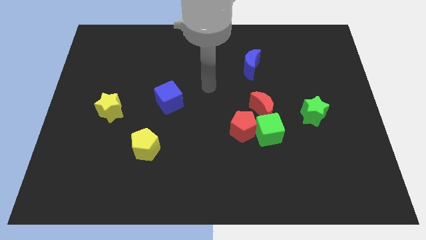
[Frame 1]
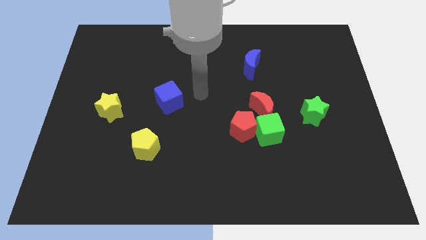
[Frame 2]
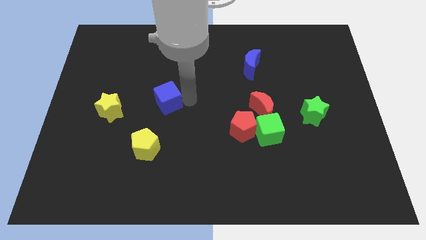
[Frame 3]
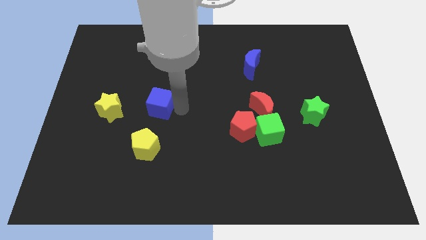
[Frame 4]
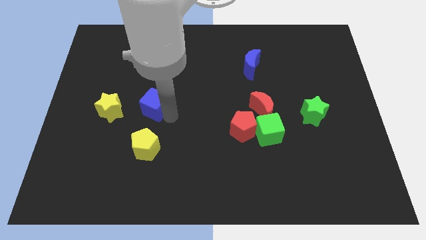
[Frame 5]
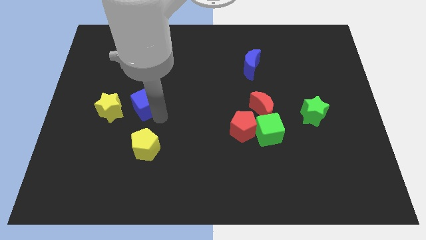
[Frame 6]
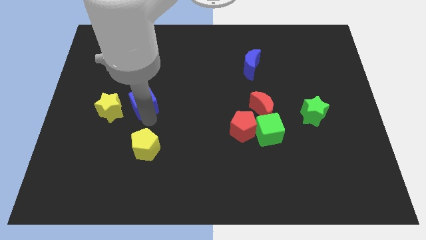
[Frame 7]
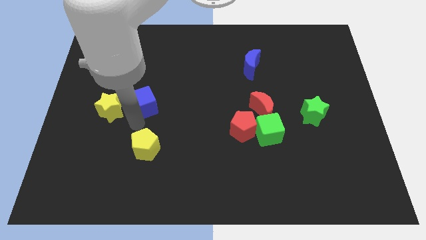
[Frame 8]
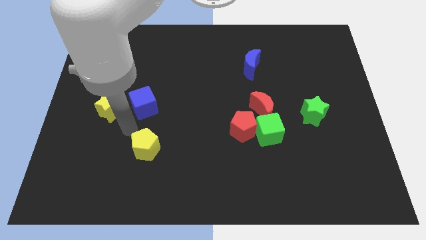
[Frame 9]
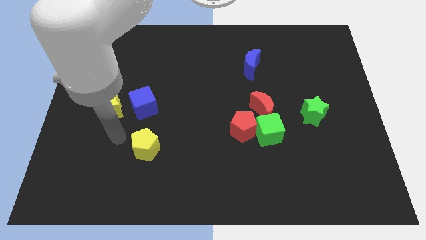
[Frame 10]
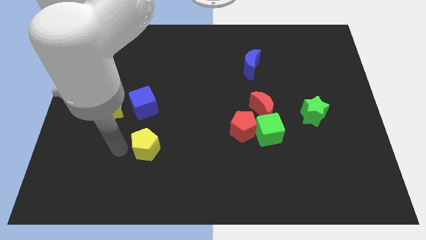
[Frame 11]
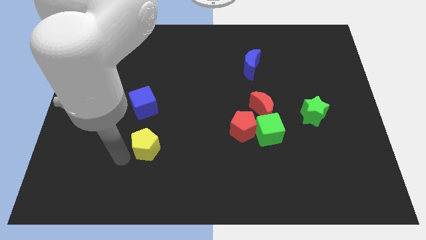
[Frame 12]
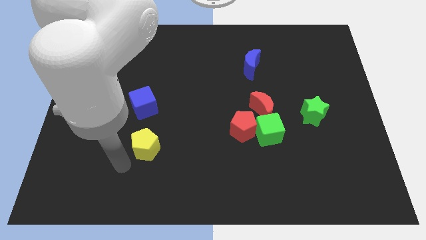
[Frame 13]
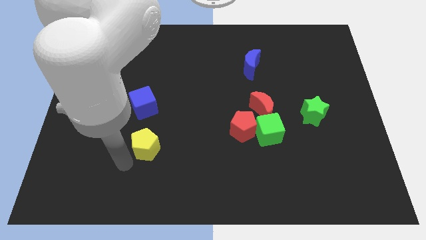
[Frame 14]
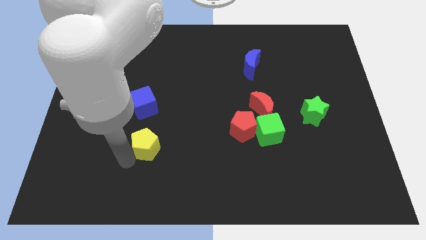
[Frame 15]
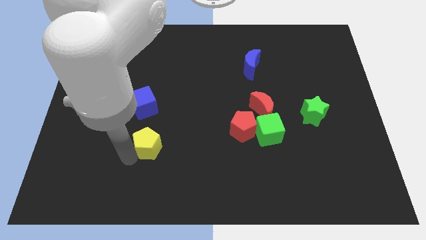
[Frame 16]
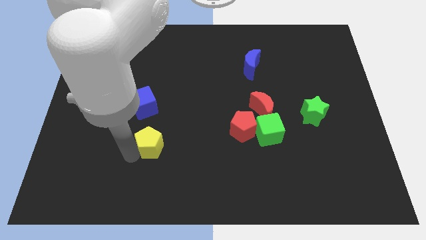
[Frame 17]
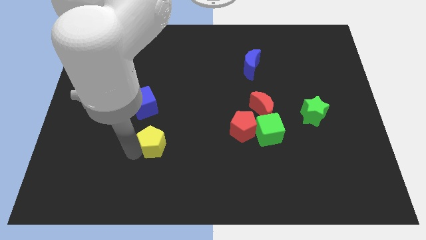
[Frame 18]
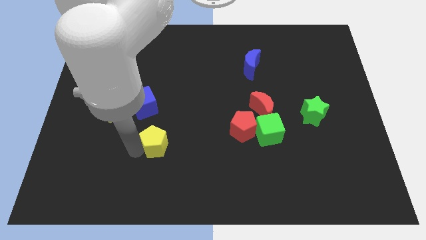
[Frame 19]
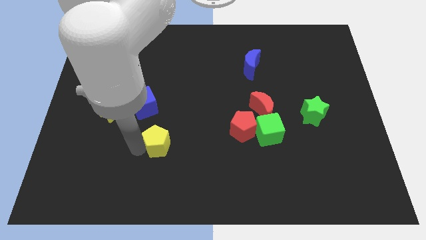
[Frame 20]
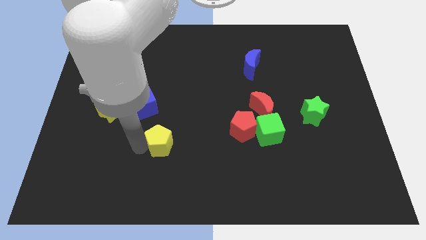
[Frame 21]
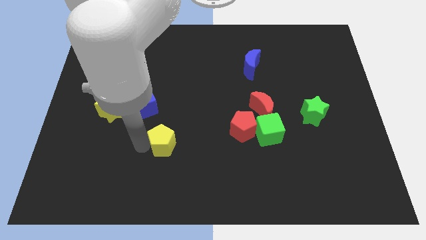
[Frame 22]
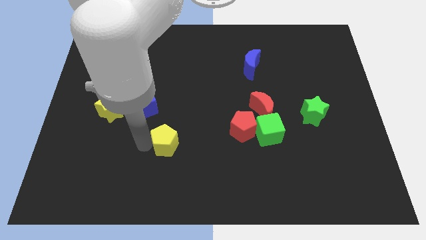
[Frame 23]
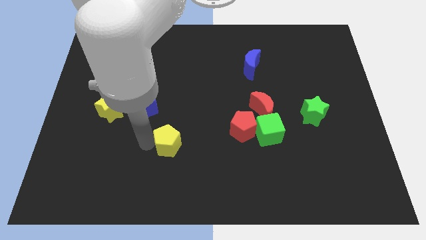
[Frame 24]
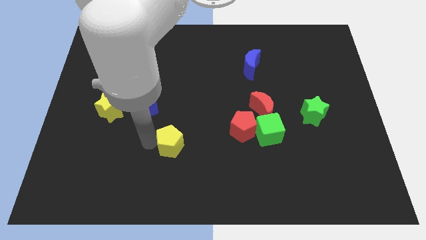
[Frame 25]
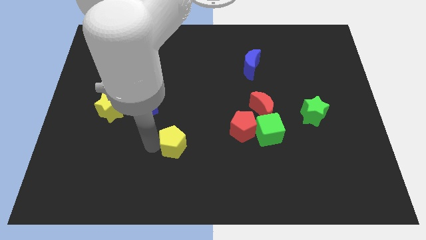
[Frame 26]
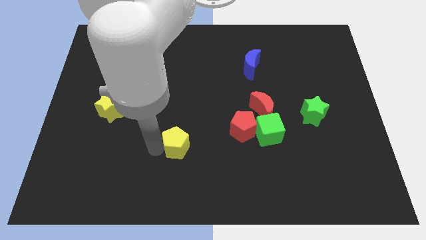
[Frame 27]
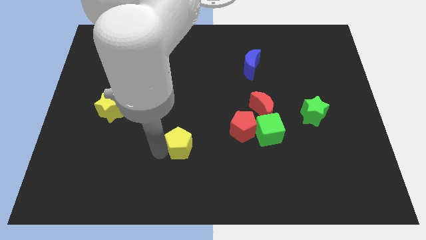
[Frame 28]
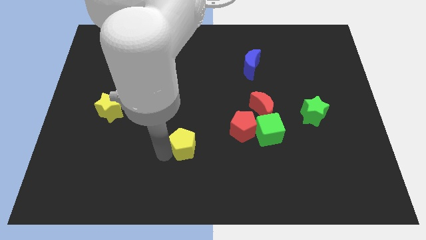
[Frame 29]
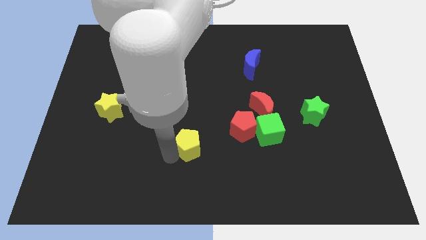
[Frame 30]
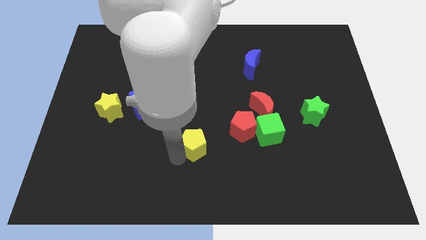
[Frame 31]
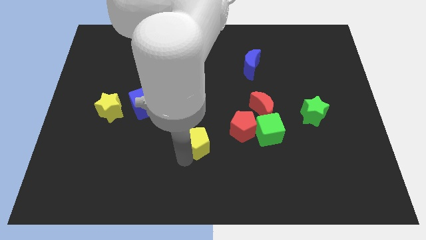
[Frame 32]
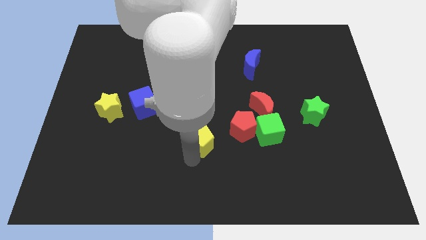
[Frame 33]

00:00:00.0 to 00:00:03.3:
move the yellow pentagon slightly diagonally upwards and right

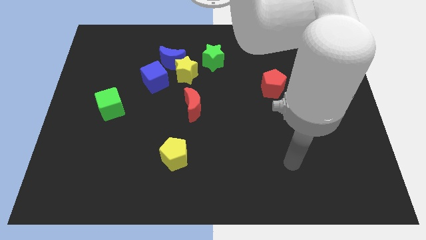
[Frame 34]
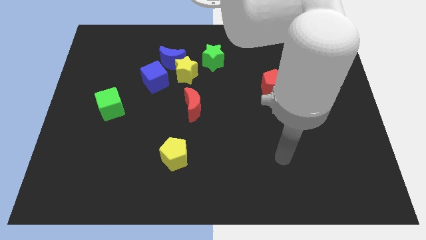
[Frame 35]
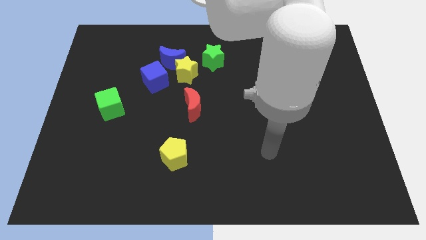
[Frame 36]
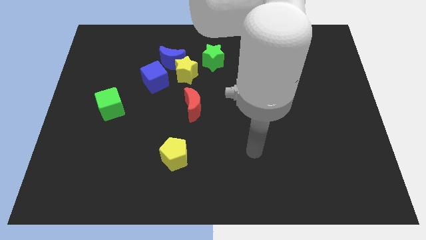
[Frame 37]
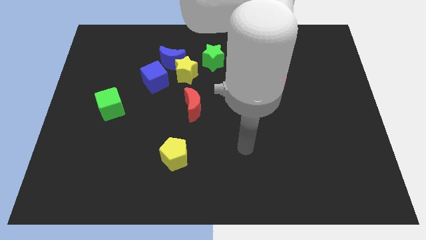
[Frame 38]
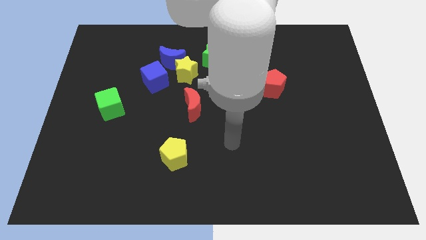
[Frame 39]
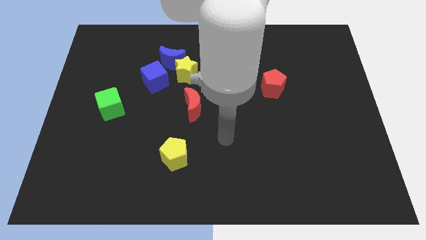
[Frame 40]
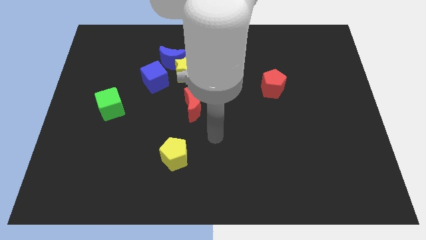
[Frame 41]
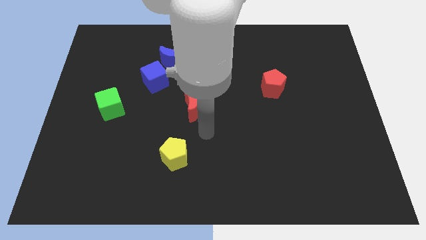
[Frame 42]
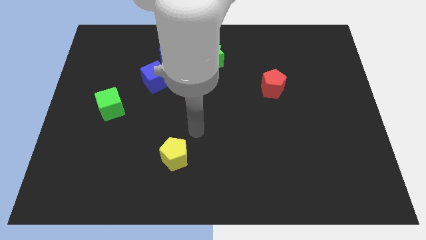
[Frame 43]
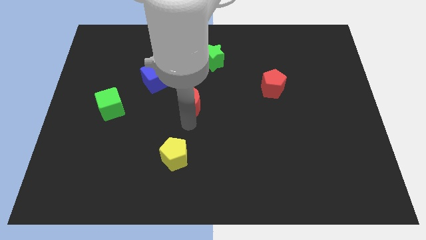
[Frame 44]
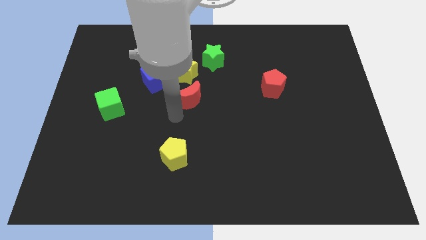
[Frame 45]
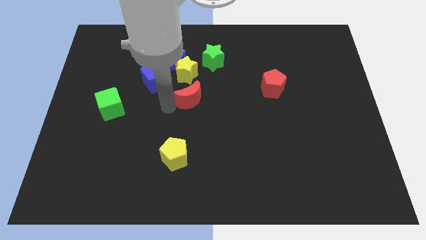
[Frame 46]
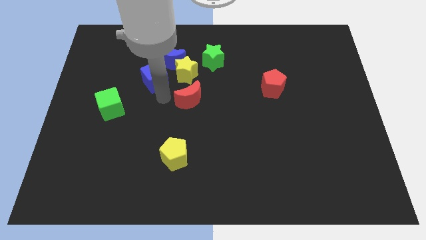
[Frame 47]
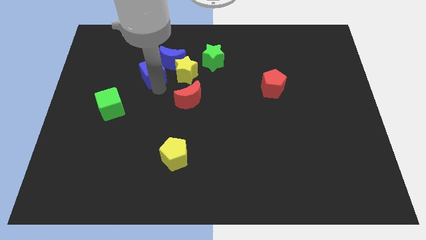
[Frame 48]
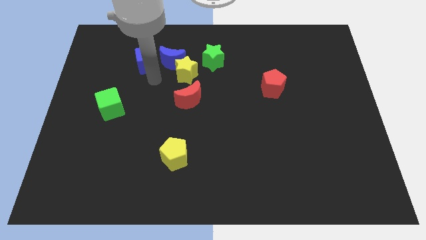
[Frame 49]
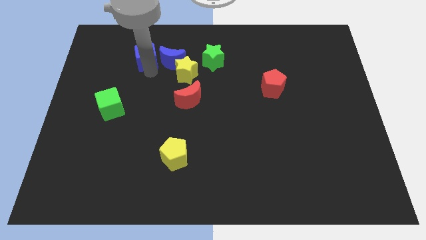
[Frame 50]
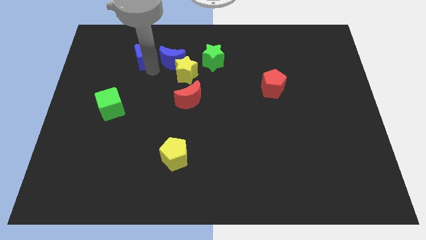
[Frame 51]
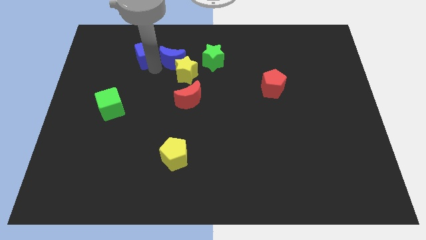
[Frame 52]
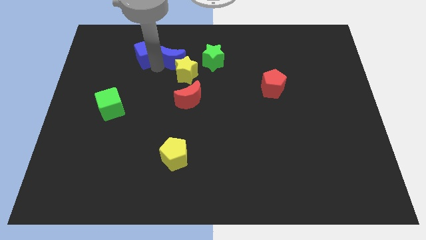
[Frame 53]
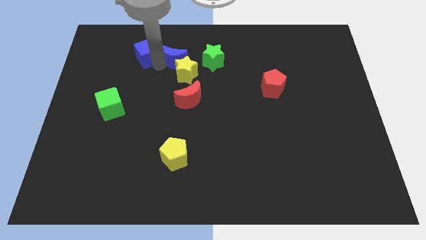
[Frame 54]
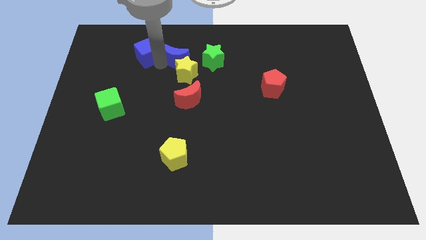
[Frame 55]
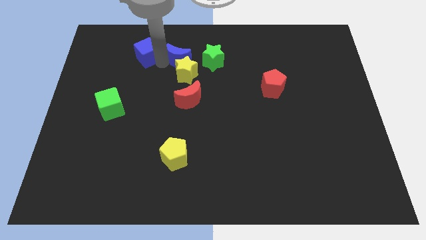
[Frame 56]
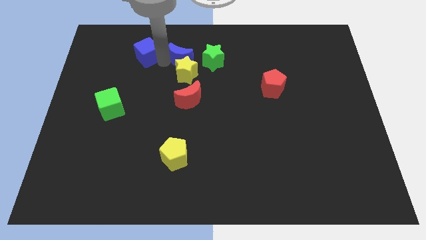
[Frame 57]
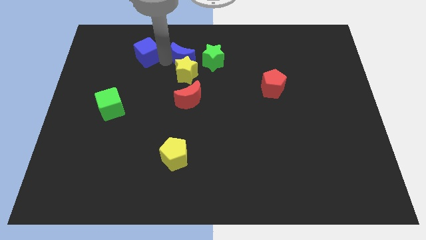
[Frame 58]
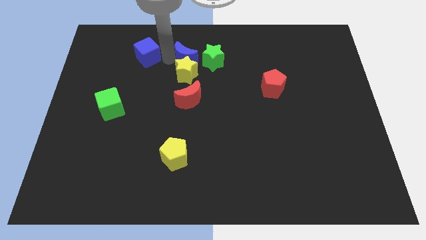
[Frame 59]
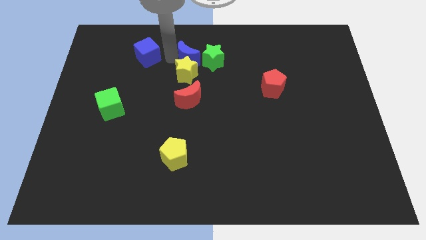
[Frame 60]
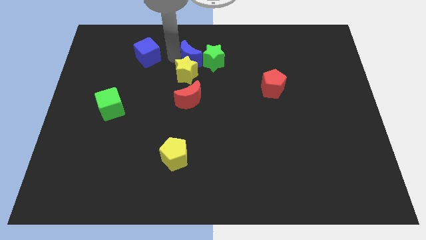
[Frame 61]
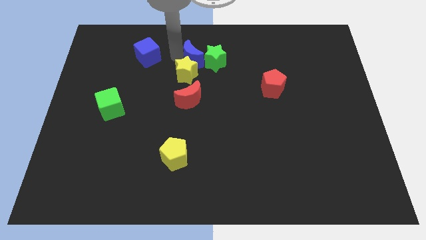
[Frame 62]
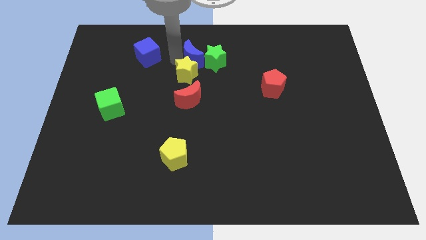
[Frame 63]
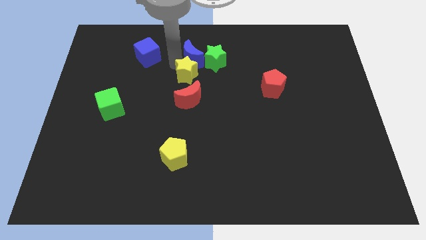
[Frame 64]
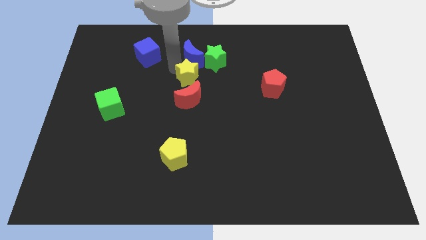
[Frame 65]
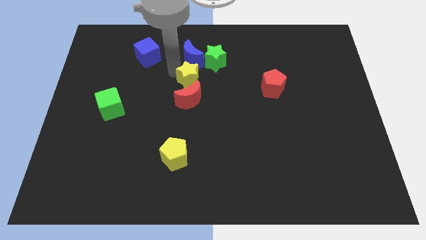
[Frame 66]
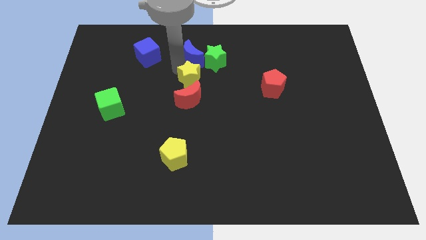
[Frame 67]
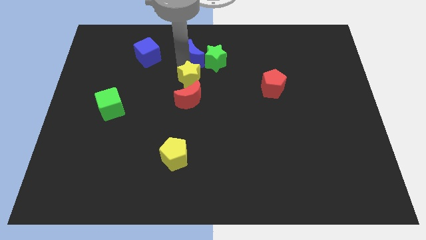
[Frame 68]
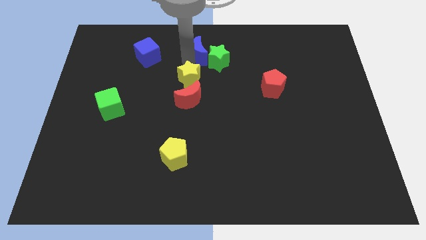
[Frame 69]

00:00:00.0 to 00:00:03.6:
slightly slide the blue moon right

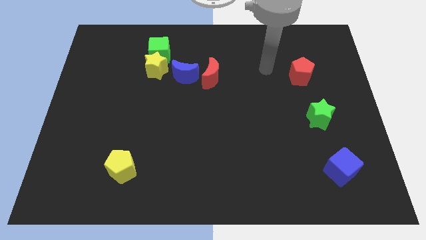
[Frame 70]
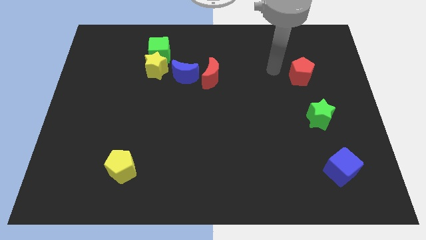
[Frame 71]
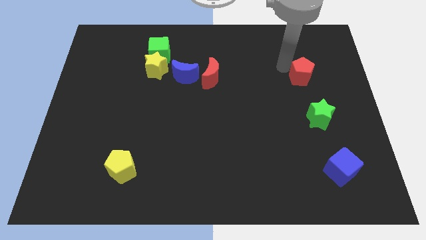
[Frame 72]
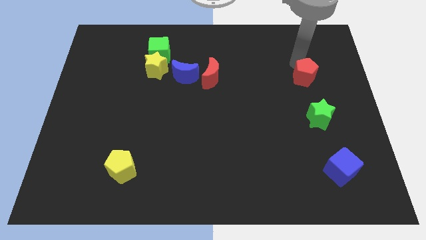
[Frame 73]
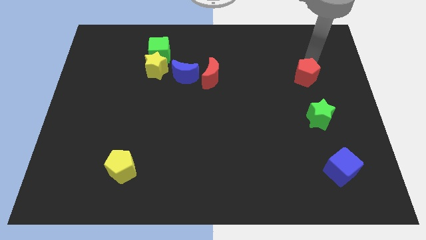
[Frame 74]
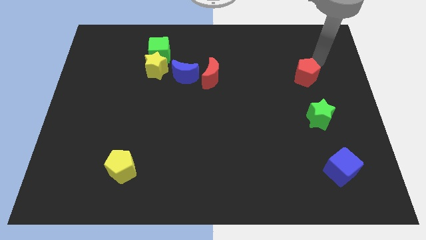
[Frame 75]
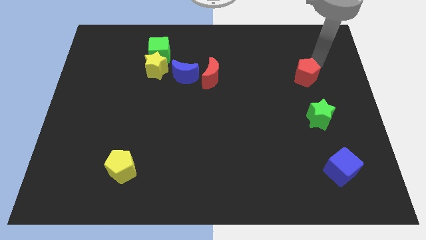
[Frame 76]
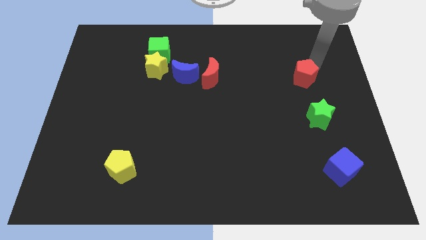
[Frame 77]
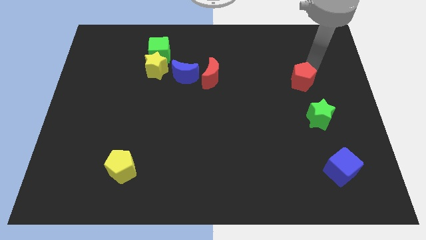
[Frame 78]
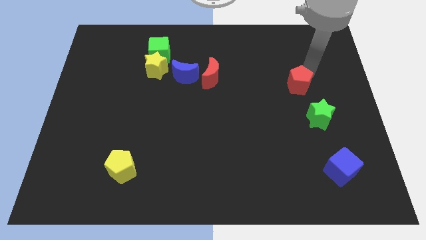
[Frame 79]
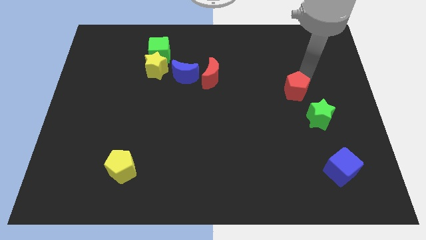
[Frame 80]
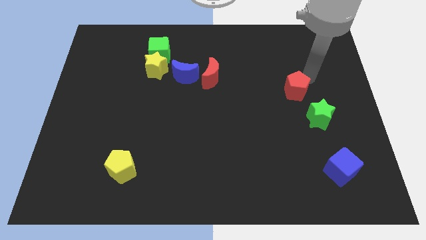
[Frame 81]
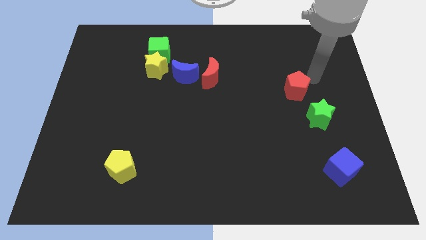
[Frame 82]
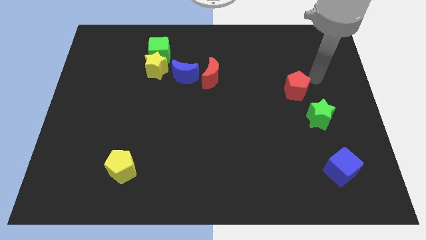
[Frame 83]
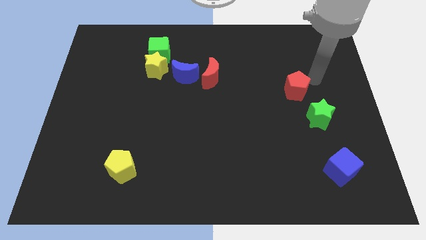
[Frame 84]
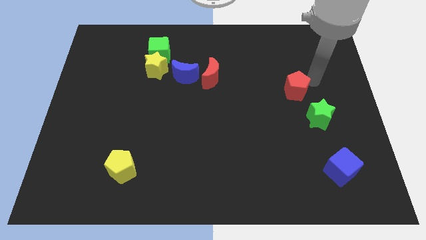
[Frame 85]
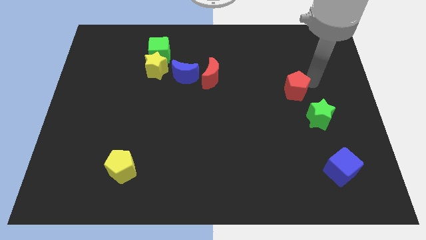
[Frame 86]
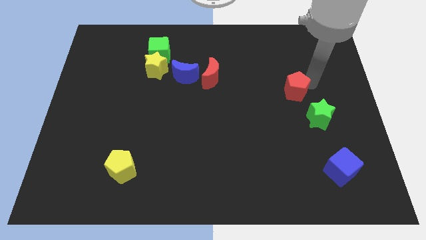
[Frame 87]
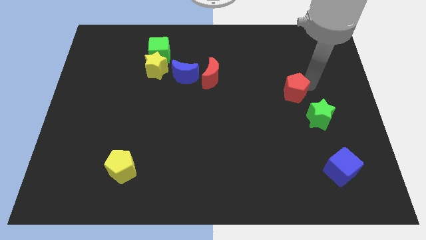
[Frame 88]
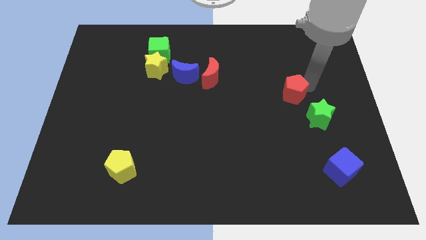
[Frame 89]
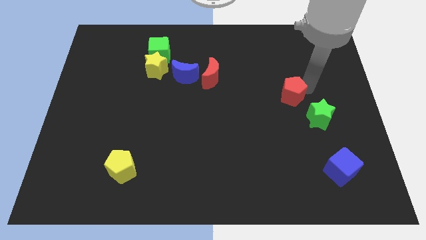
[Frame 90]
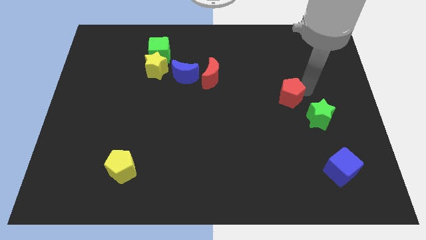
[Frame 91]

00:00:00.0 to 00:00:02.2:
move the red pentagon somewhat down and left
